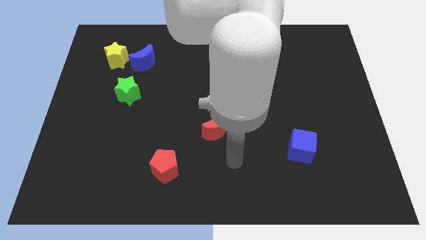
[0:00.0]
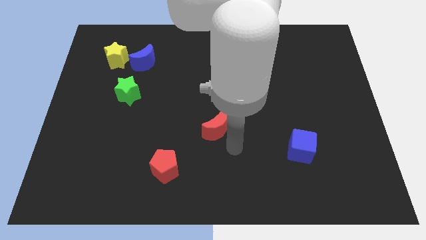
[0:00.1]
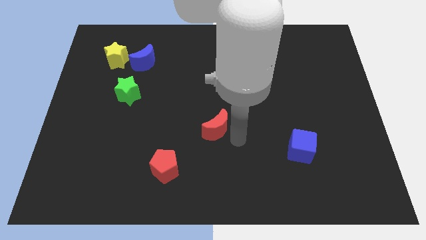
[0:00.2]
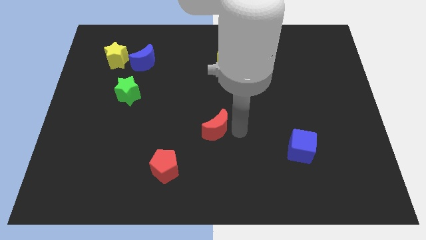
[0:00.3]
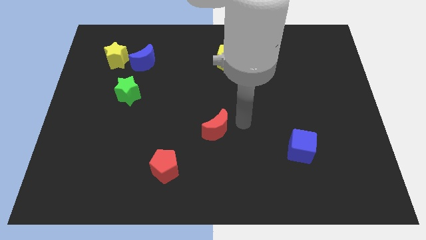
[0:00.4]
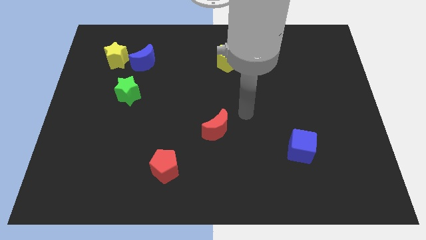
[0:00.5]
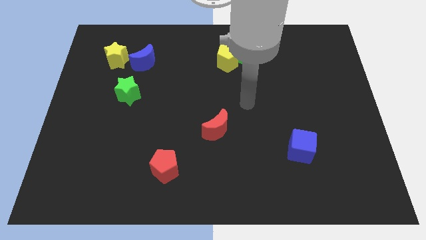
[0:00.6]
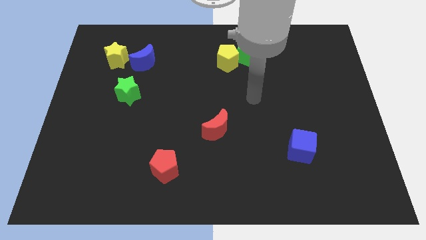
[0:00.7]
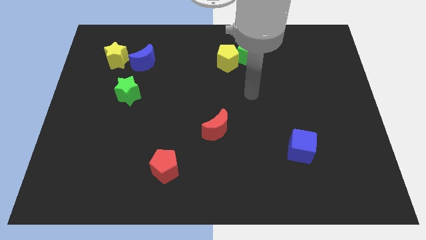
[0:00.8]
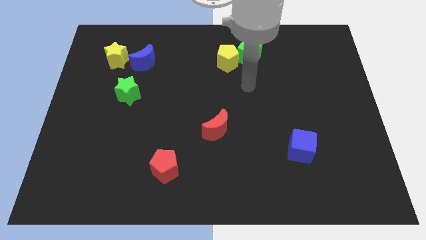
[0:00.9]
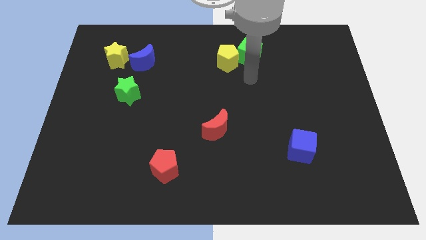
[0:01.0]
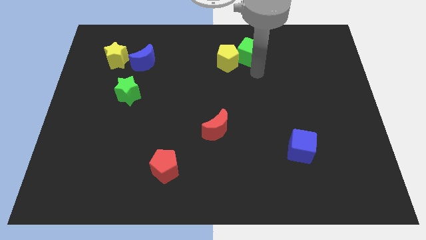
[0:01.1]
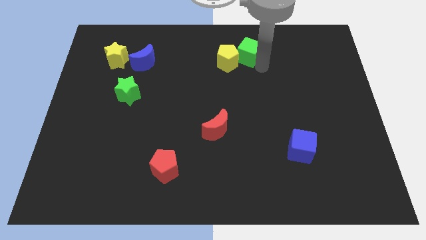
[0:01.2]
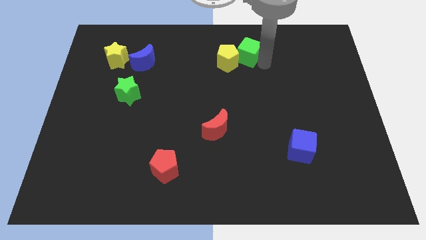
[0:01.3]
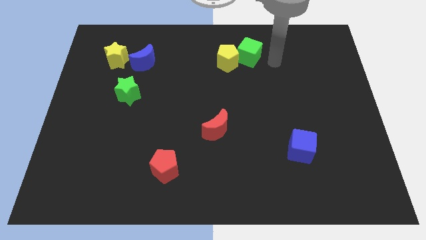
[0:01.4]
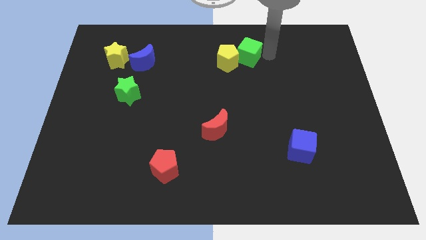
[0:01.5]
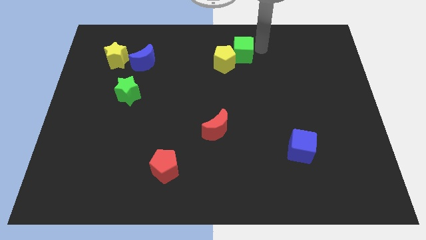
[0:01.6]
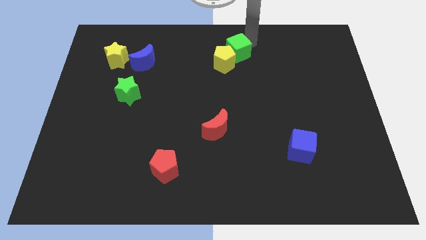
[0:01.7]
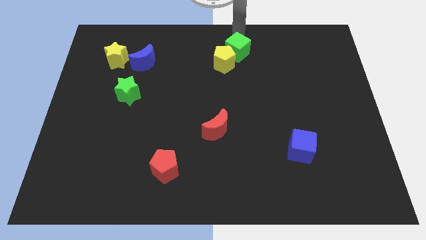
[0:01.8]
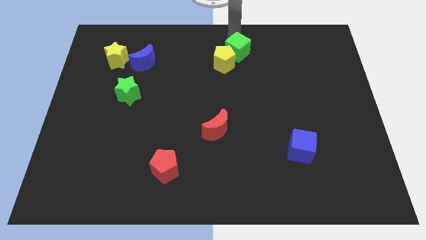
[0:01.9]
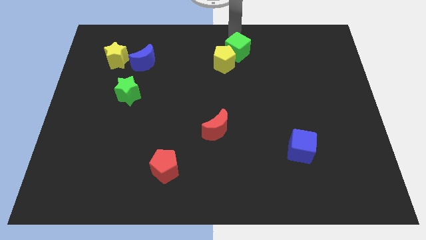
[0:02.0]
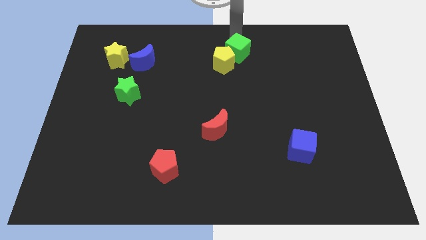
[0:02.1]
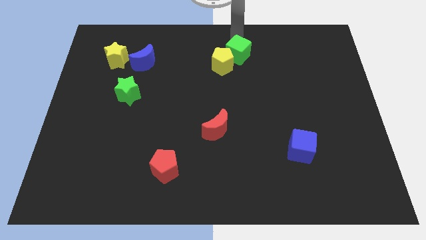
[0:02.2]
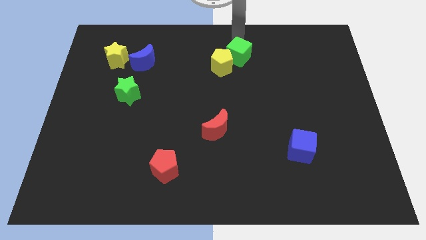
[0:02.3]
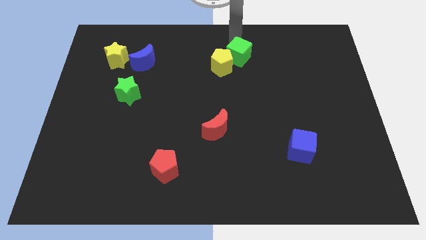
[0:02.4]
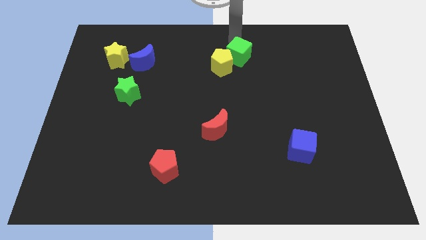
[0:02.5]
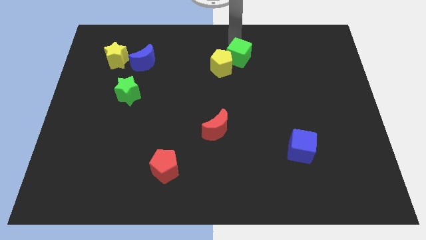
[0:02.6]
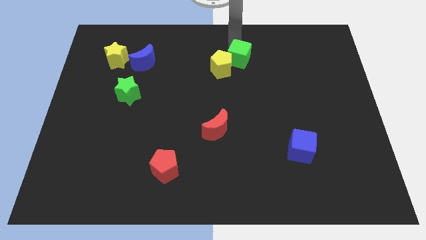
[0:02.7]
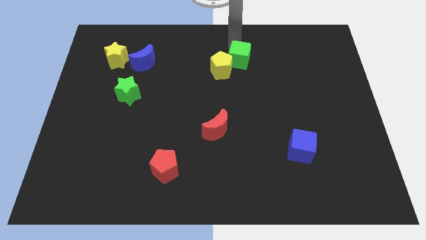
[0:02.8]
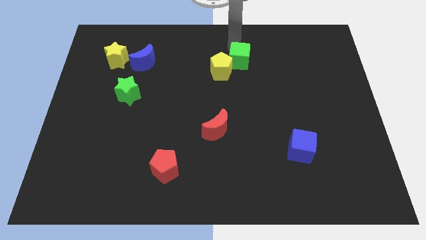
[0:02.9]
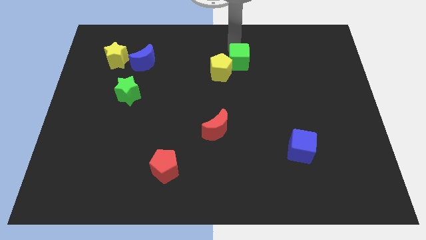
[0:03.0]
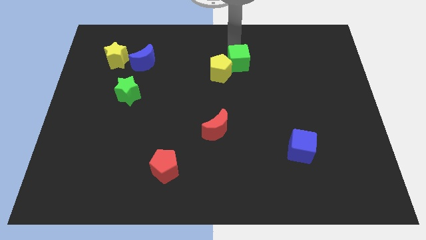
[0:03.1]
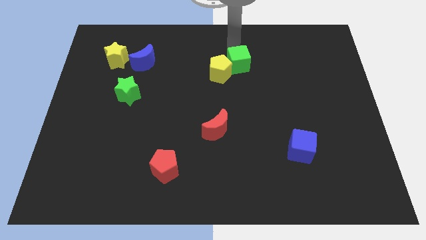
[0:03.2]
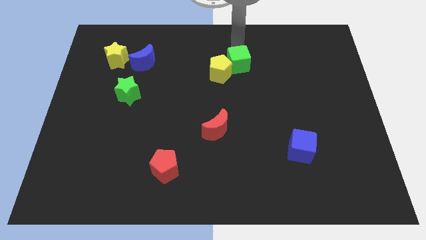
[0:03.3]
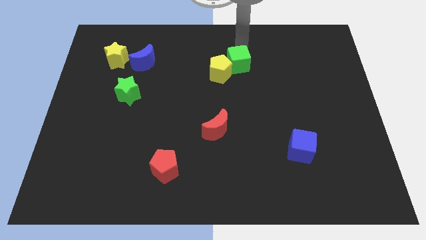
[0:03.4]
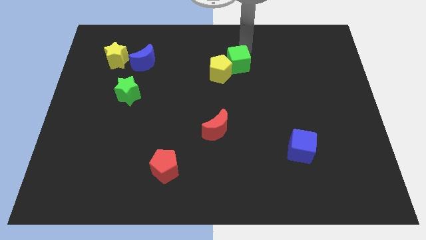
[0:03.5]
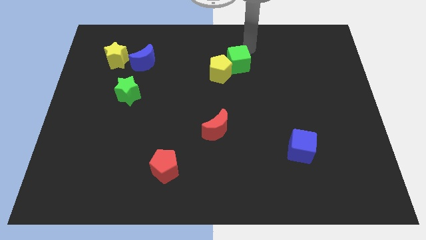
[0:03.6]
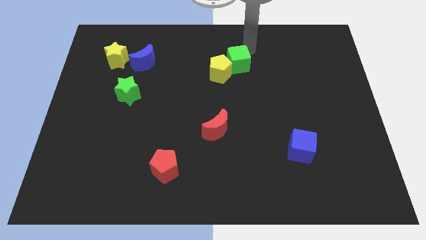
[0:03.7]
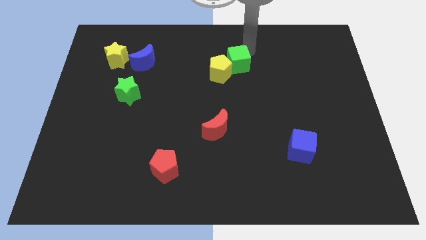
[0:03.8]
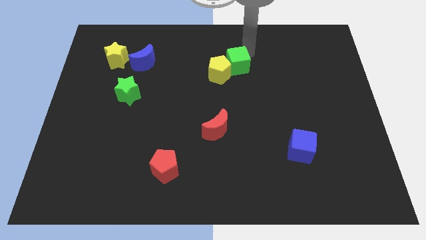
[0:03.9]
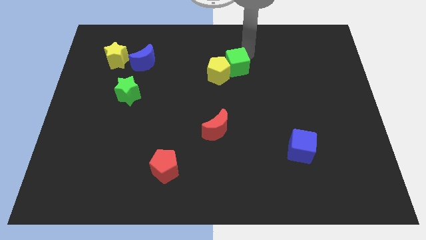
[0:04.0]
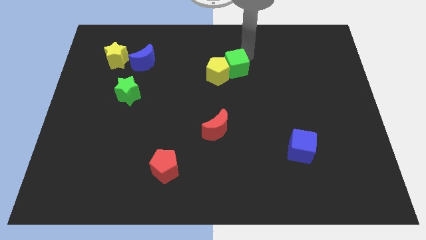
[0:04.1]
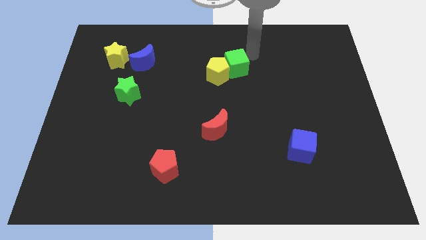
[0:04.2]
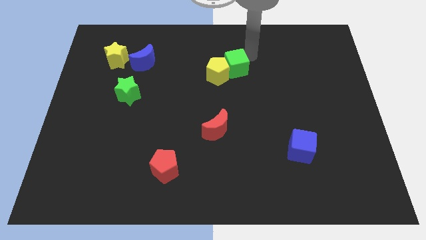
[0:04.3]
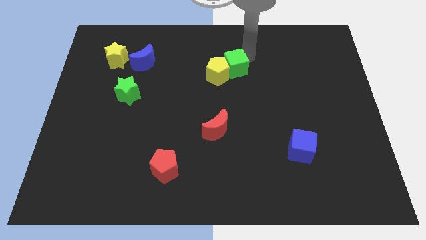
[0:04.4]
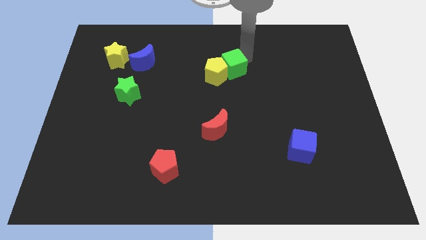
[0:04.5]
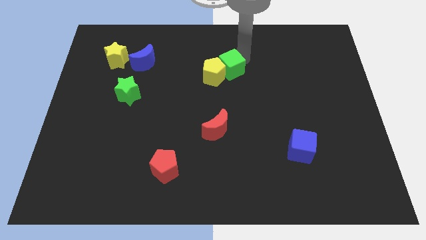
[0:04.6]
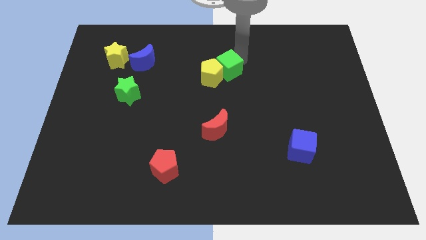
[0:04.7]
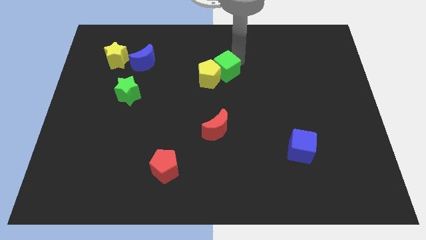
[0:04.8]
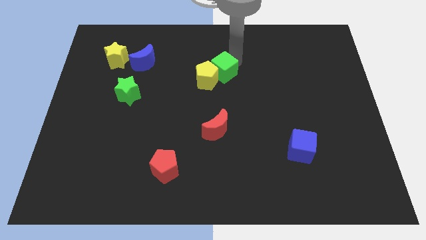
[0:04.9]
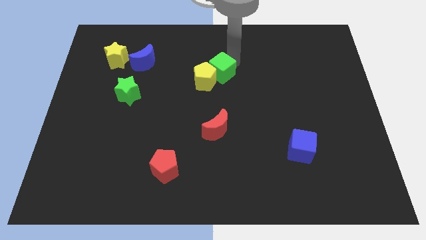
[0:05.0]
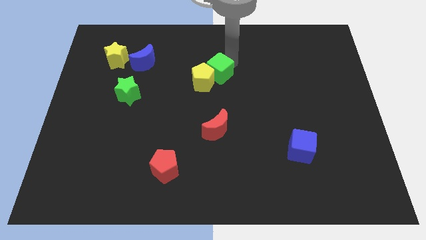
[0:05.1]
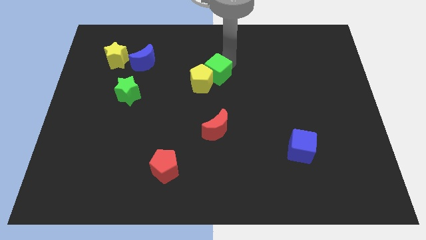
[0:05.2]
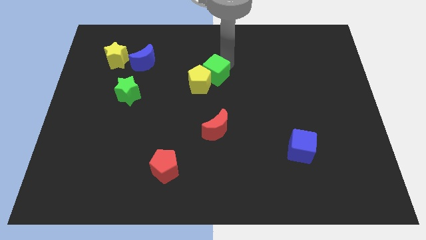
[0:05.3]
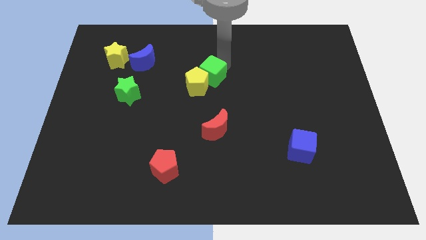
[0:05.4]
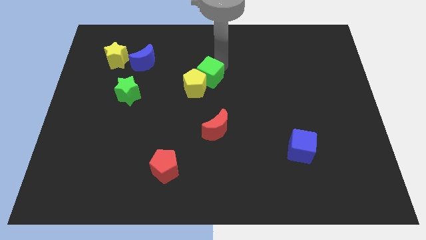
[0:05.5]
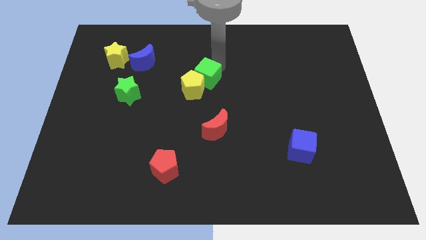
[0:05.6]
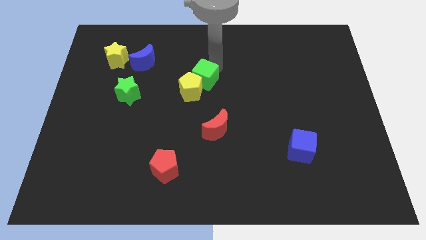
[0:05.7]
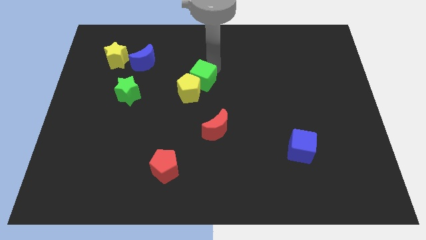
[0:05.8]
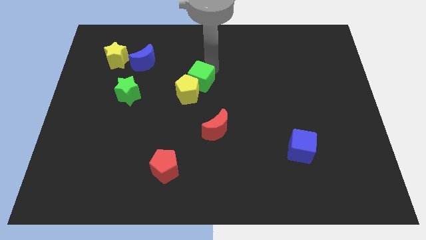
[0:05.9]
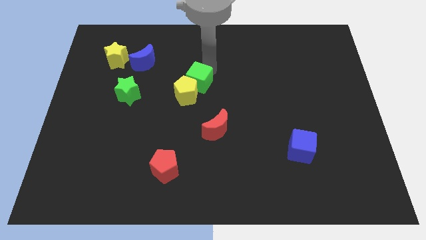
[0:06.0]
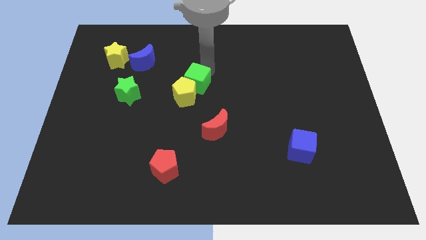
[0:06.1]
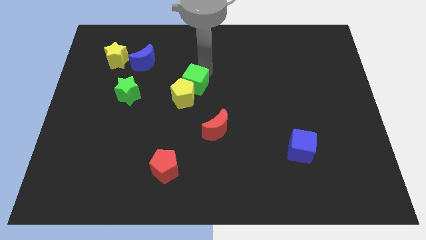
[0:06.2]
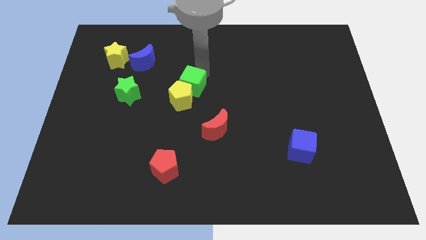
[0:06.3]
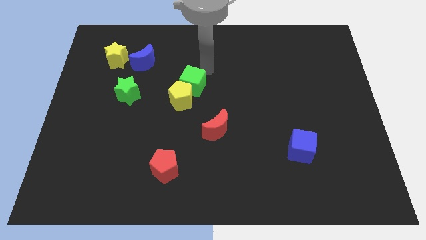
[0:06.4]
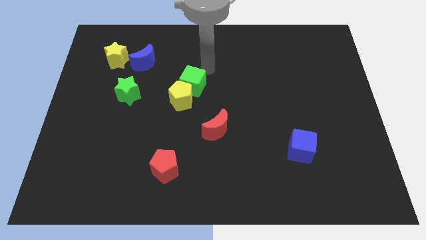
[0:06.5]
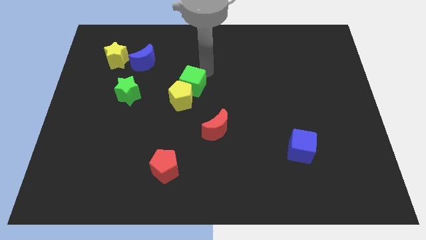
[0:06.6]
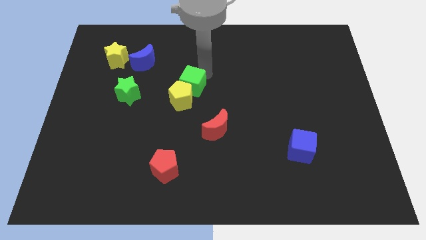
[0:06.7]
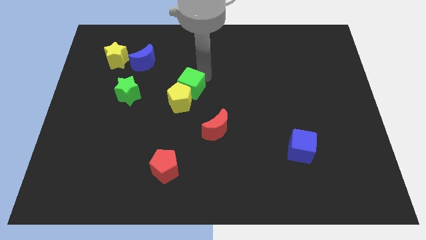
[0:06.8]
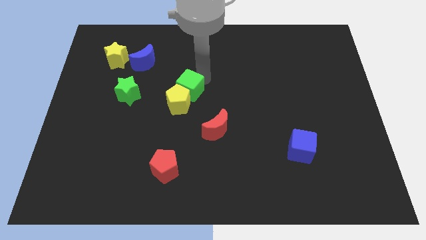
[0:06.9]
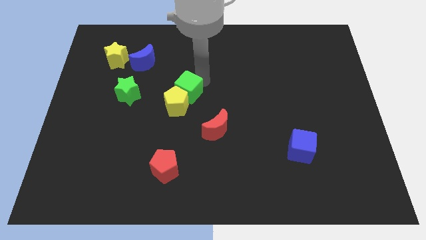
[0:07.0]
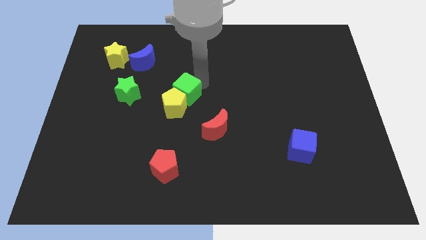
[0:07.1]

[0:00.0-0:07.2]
push the green cube diagonally downwards and left

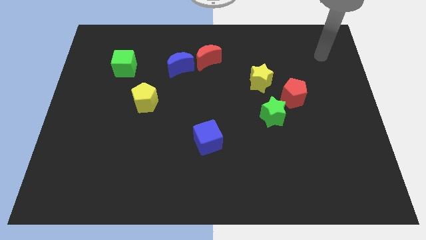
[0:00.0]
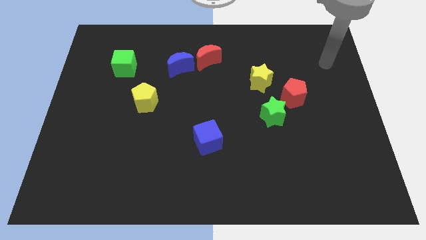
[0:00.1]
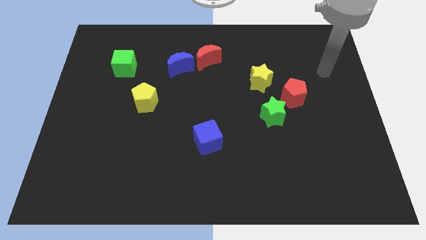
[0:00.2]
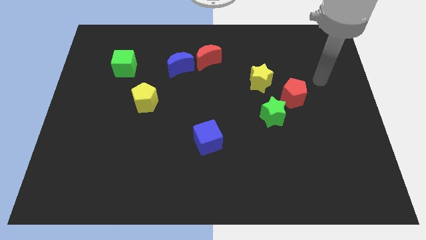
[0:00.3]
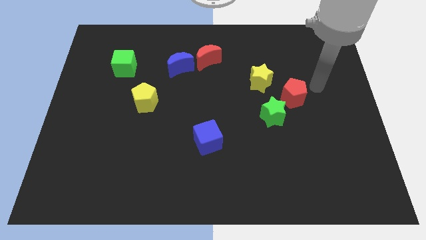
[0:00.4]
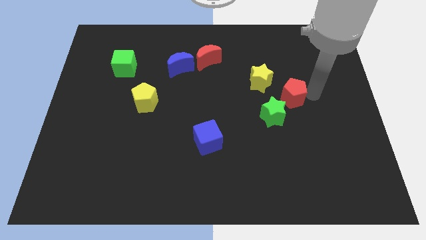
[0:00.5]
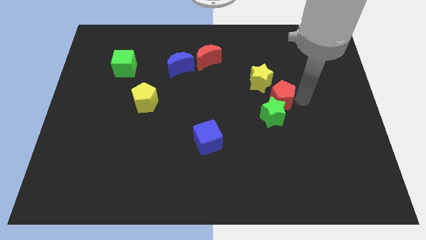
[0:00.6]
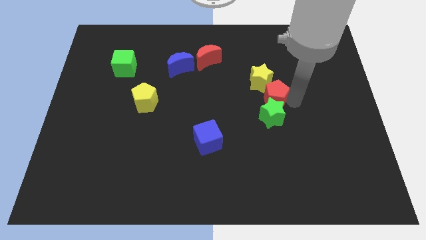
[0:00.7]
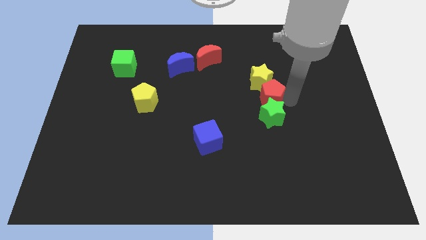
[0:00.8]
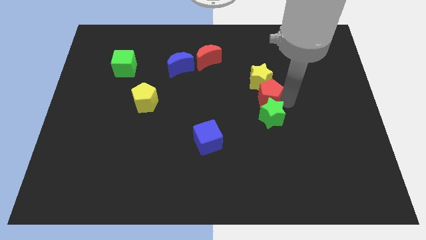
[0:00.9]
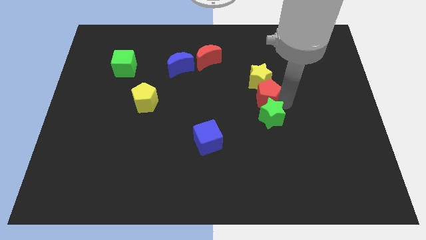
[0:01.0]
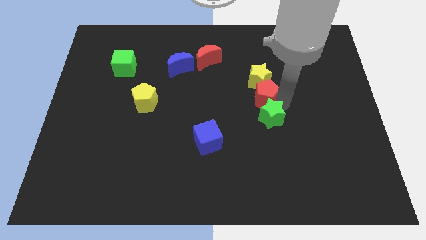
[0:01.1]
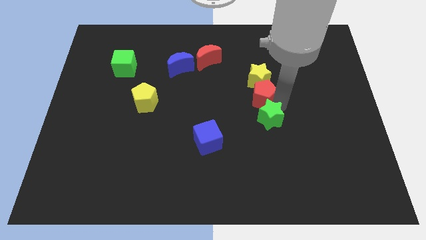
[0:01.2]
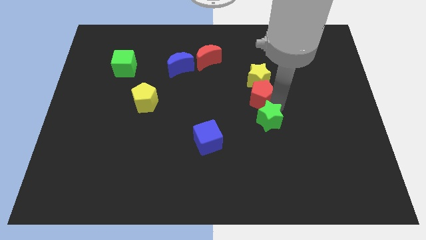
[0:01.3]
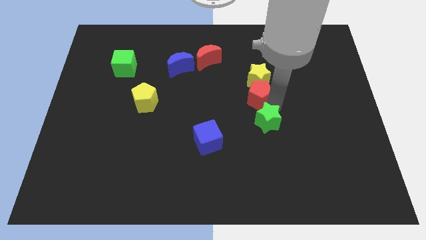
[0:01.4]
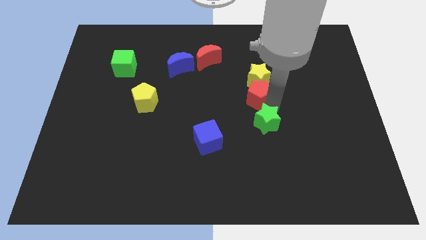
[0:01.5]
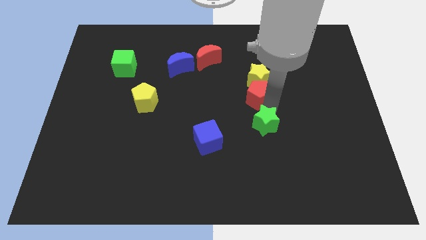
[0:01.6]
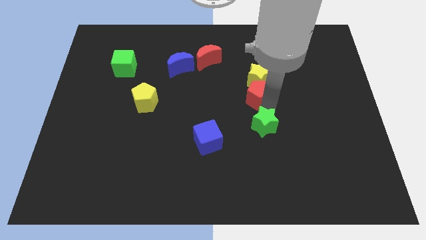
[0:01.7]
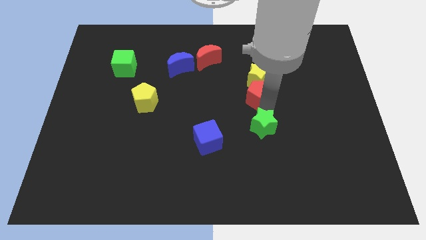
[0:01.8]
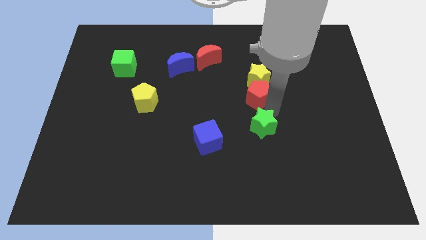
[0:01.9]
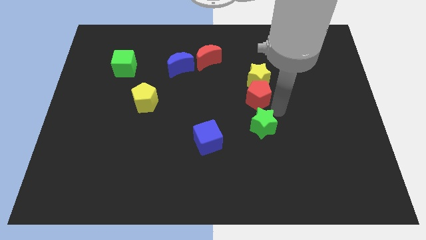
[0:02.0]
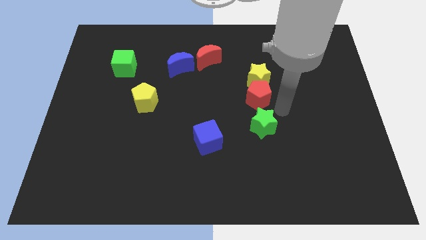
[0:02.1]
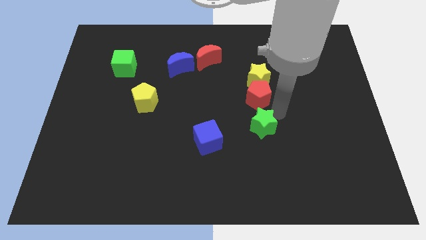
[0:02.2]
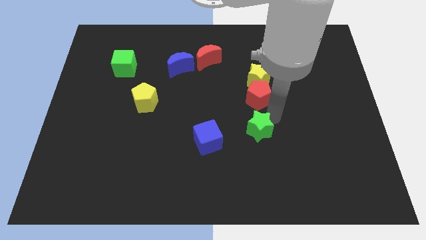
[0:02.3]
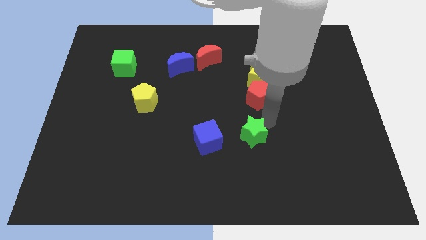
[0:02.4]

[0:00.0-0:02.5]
push the green star somewhat down and to the left
